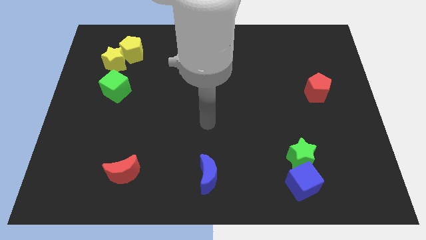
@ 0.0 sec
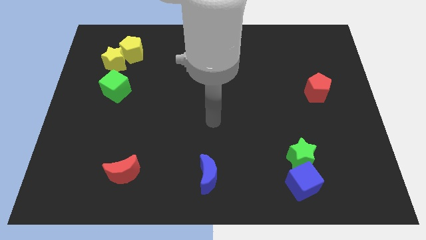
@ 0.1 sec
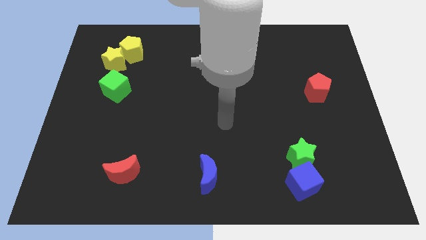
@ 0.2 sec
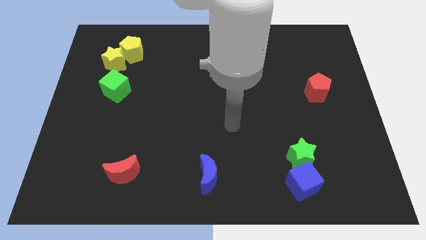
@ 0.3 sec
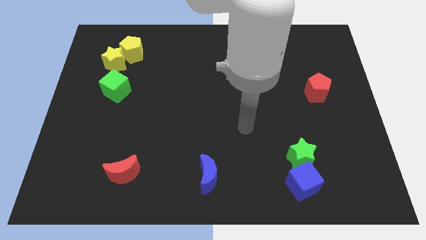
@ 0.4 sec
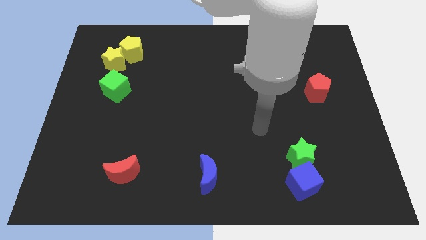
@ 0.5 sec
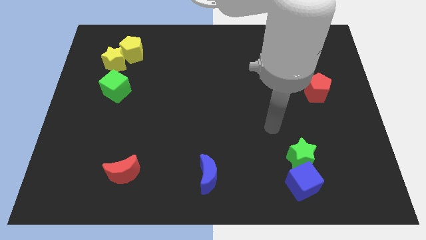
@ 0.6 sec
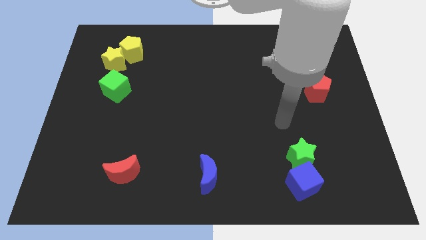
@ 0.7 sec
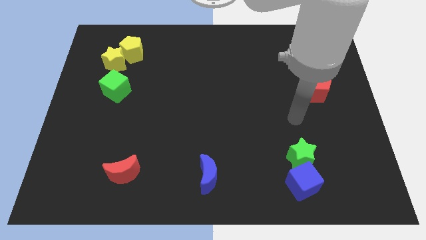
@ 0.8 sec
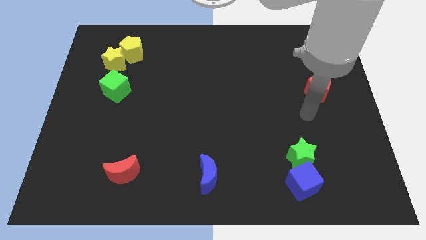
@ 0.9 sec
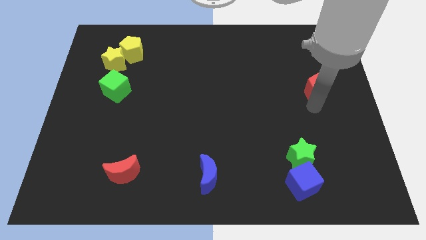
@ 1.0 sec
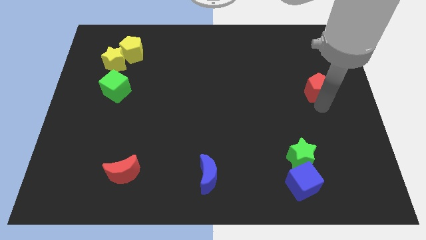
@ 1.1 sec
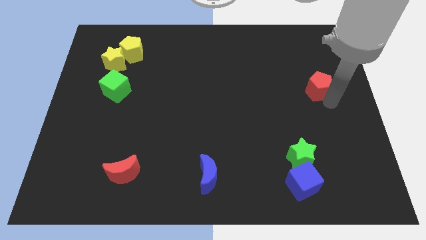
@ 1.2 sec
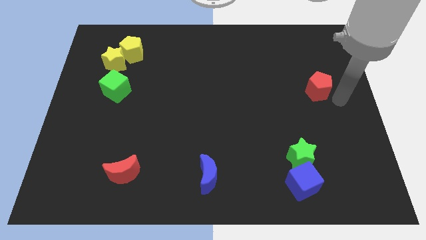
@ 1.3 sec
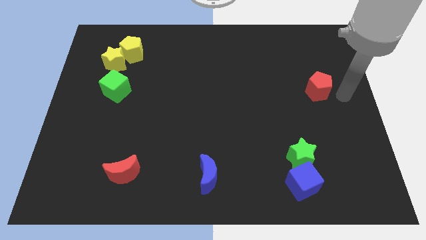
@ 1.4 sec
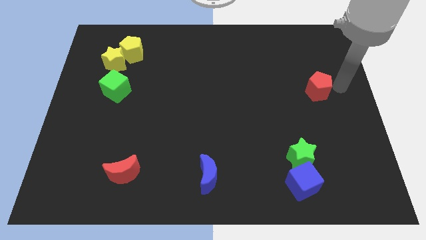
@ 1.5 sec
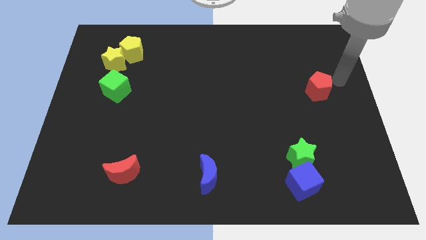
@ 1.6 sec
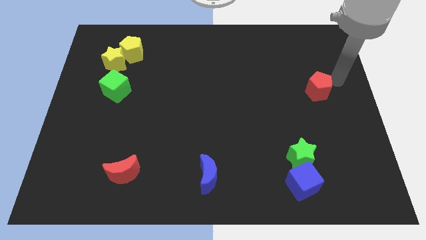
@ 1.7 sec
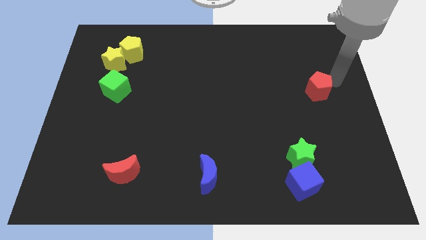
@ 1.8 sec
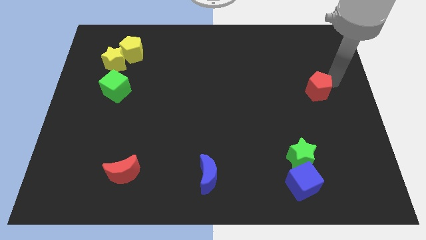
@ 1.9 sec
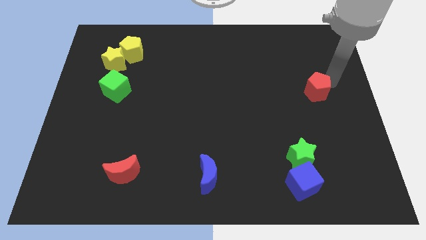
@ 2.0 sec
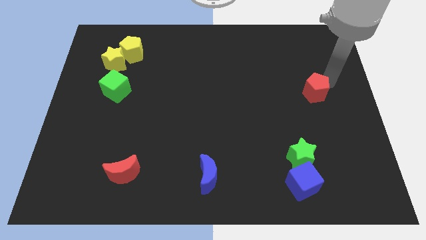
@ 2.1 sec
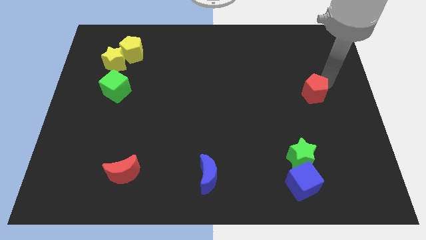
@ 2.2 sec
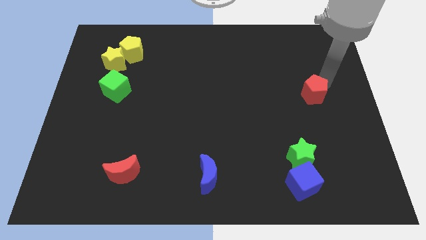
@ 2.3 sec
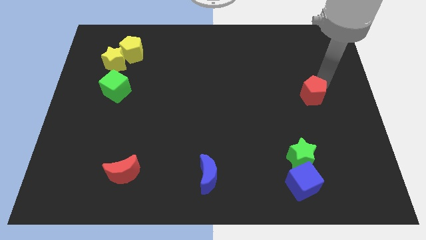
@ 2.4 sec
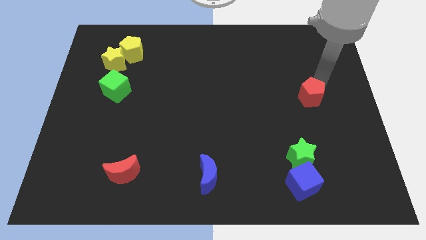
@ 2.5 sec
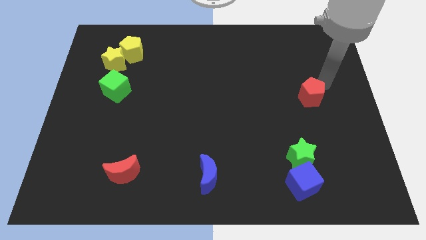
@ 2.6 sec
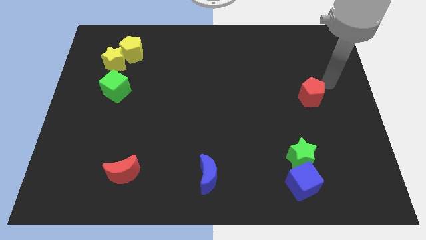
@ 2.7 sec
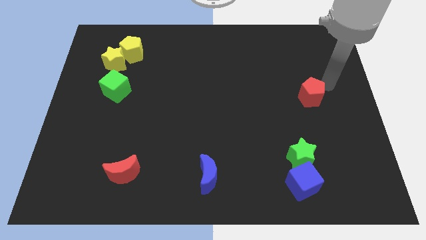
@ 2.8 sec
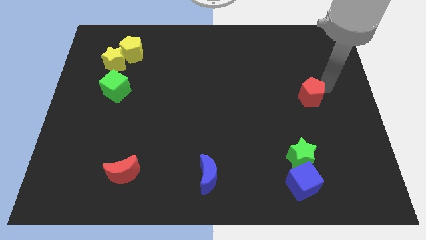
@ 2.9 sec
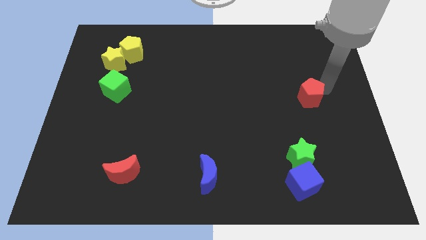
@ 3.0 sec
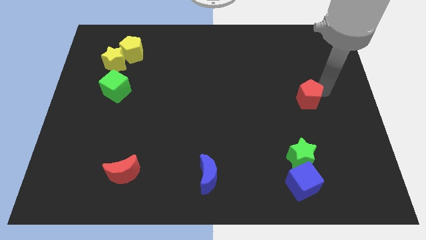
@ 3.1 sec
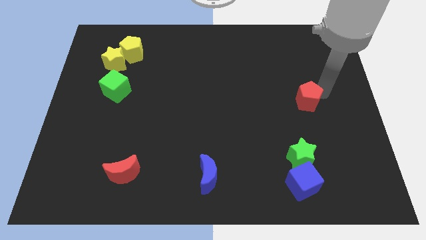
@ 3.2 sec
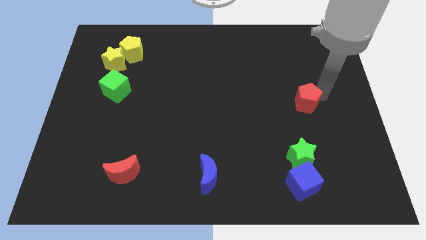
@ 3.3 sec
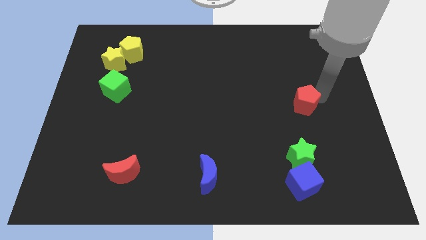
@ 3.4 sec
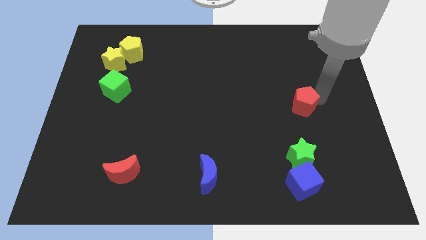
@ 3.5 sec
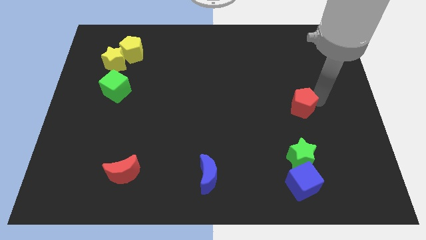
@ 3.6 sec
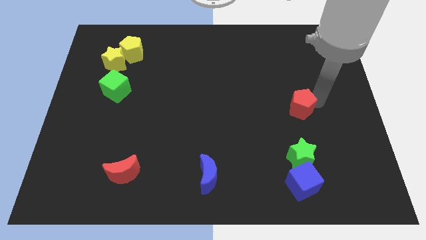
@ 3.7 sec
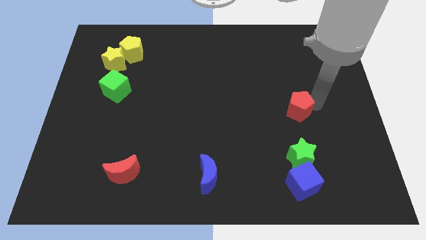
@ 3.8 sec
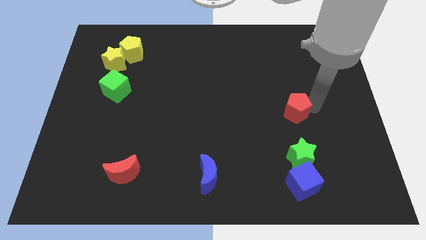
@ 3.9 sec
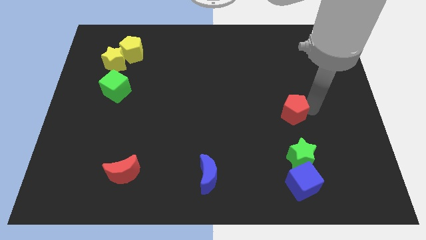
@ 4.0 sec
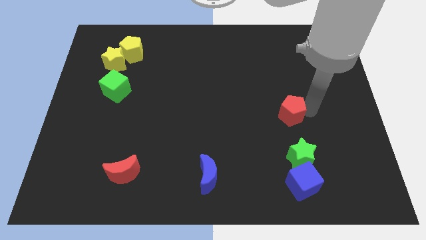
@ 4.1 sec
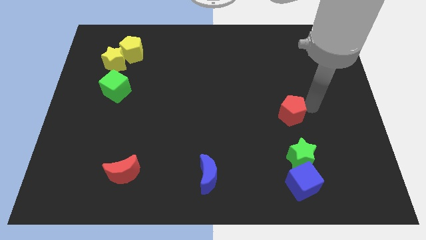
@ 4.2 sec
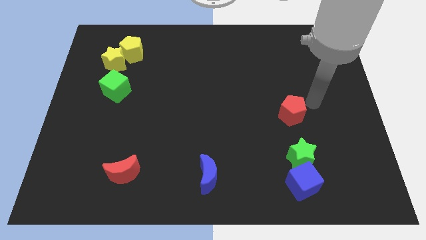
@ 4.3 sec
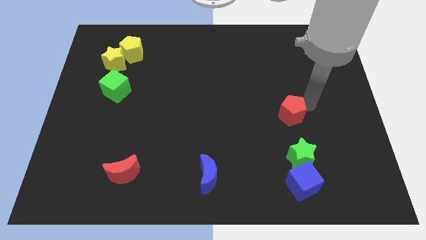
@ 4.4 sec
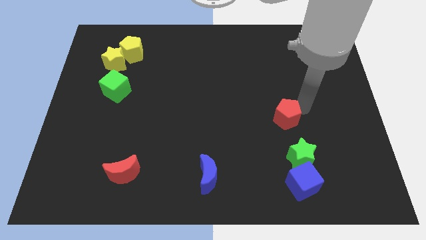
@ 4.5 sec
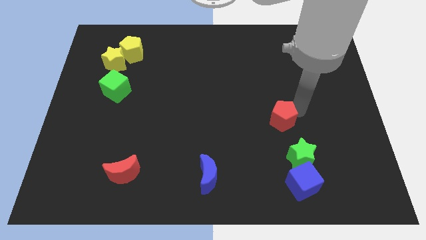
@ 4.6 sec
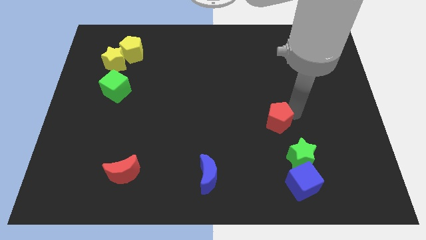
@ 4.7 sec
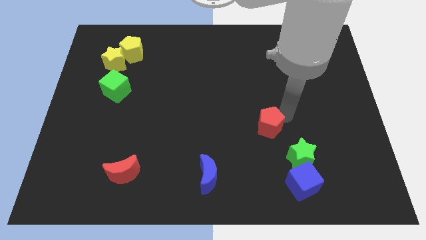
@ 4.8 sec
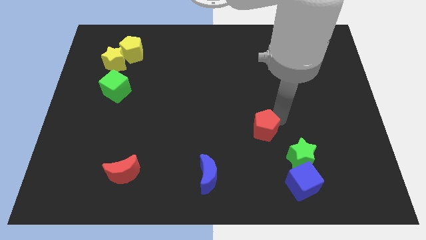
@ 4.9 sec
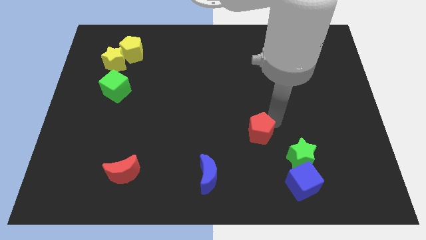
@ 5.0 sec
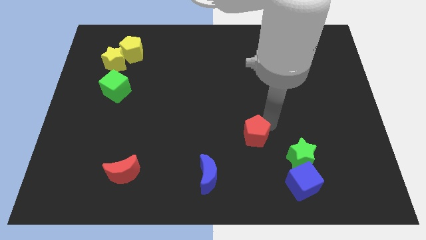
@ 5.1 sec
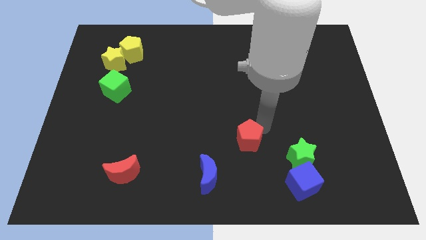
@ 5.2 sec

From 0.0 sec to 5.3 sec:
push the red pentagon to the left of the green star
